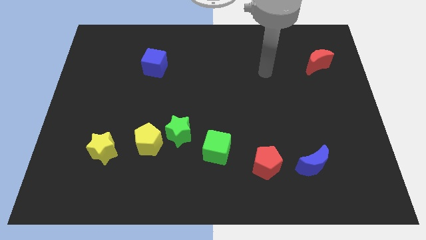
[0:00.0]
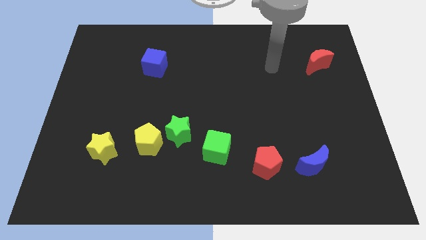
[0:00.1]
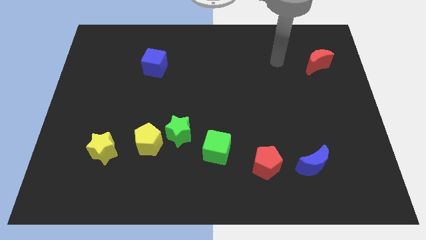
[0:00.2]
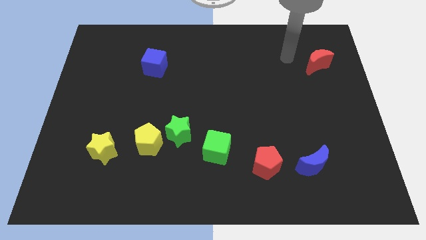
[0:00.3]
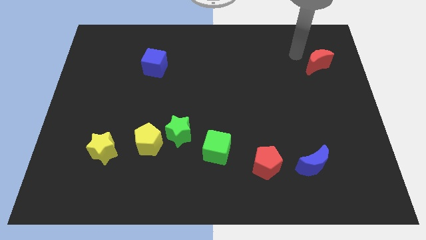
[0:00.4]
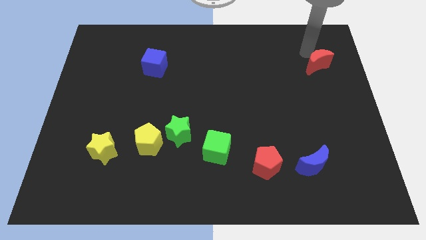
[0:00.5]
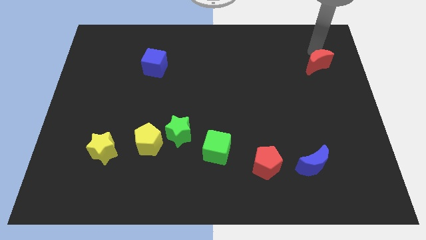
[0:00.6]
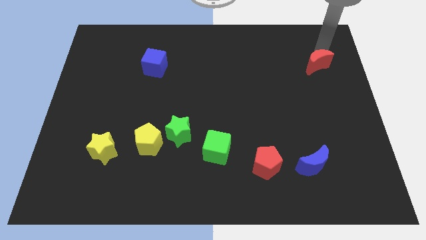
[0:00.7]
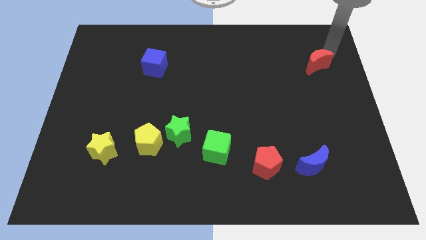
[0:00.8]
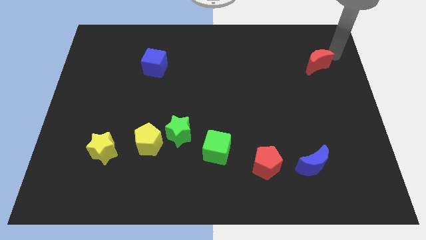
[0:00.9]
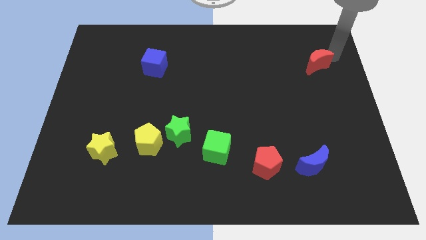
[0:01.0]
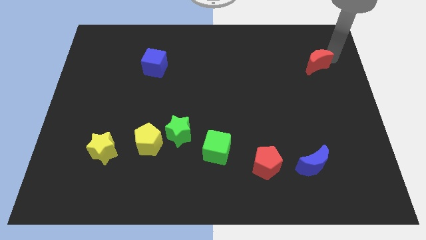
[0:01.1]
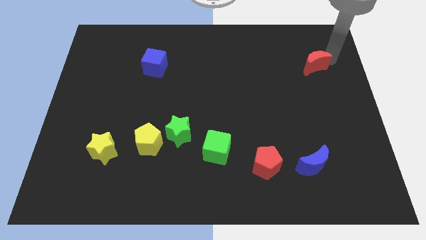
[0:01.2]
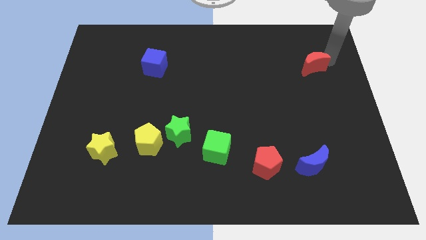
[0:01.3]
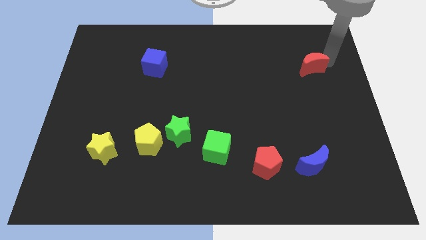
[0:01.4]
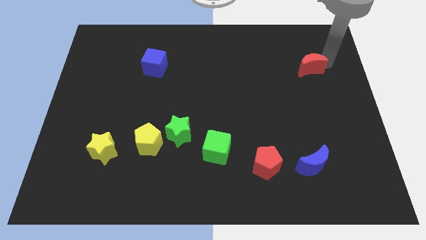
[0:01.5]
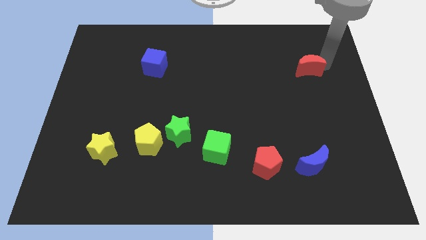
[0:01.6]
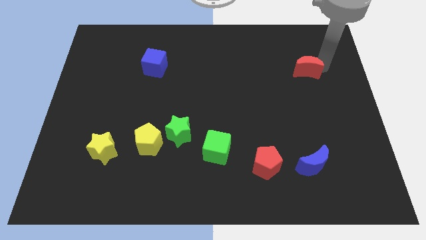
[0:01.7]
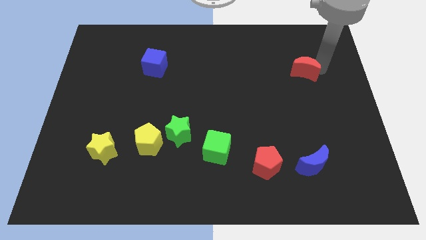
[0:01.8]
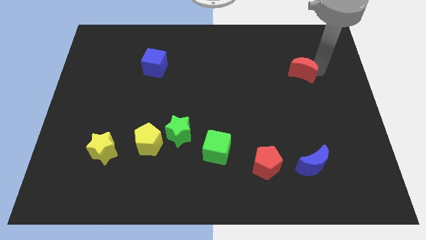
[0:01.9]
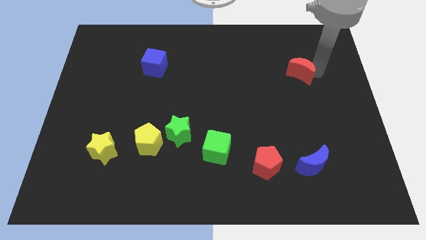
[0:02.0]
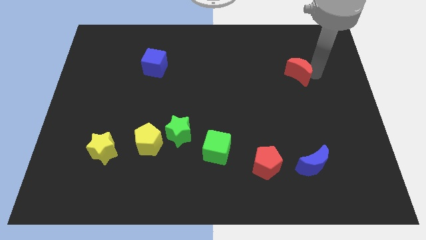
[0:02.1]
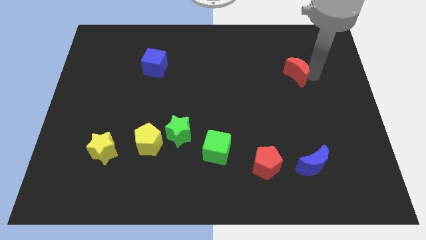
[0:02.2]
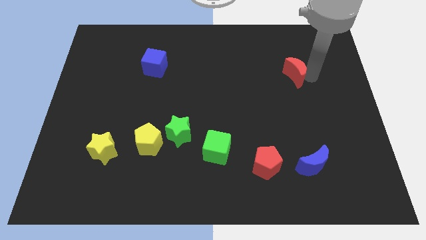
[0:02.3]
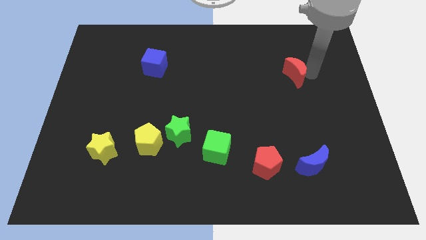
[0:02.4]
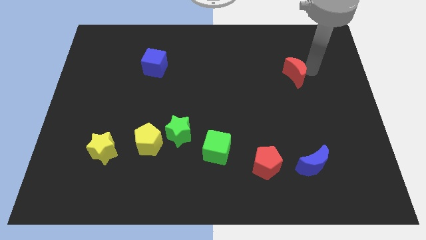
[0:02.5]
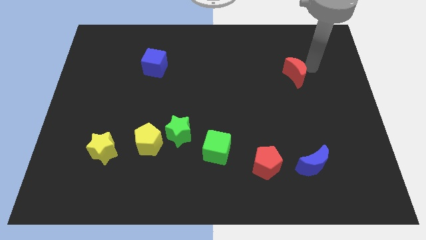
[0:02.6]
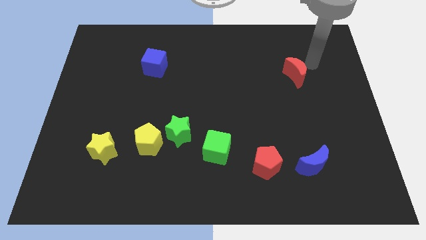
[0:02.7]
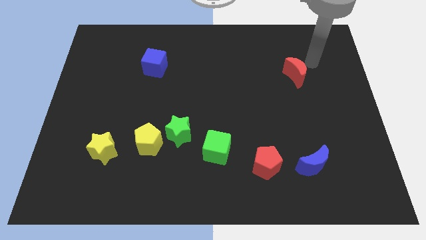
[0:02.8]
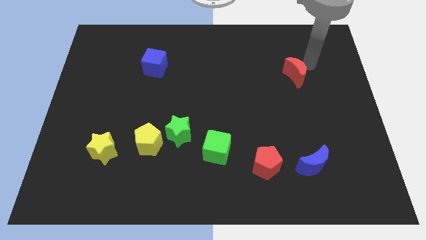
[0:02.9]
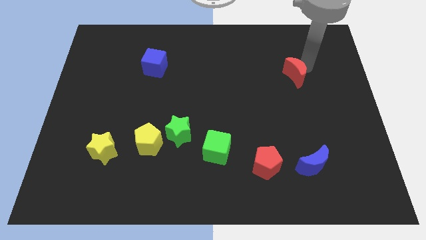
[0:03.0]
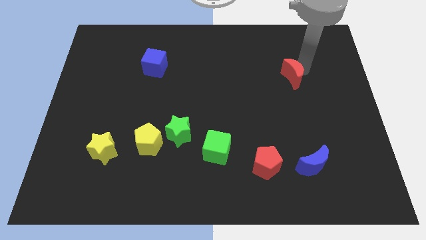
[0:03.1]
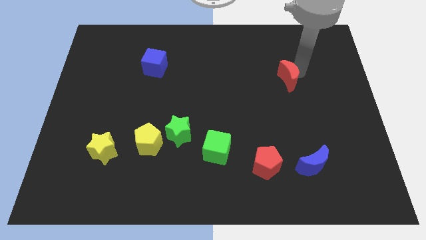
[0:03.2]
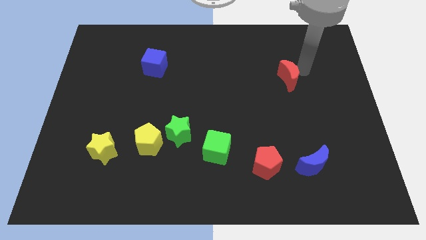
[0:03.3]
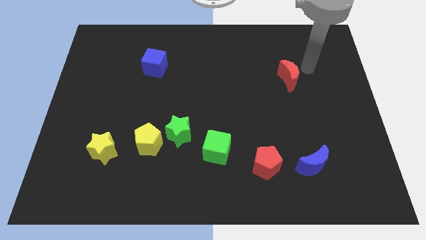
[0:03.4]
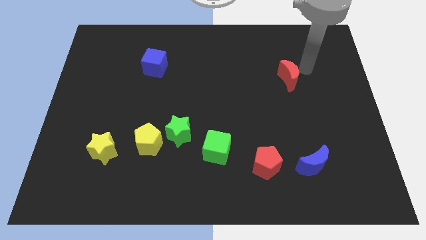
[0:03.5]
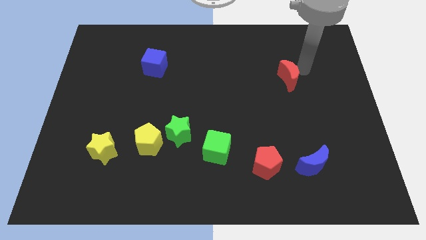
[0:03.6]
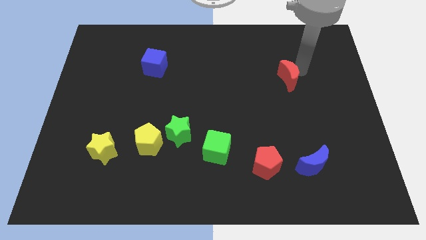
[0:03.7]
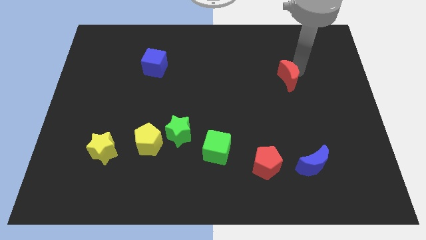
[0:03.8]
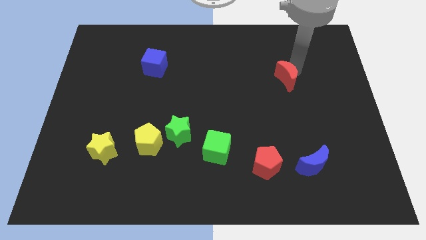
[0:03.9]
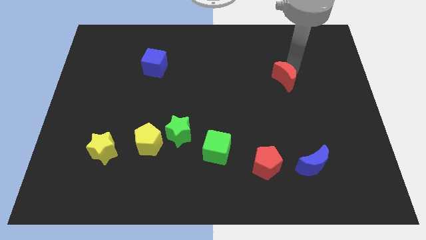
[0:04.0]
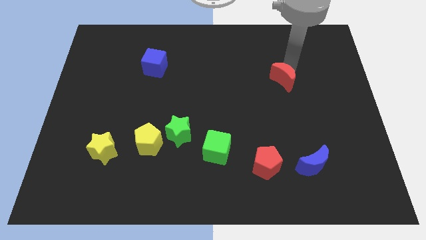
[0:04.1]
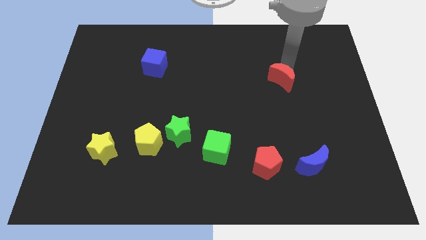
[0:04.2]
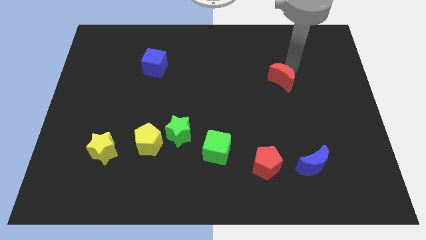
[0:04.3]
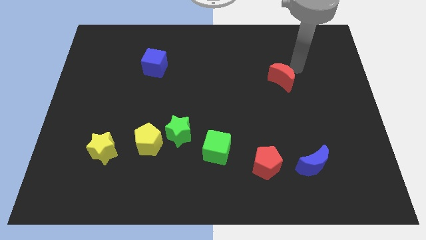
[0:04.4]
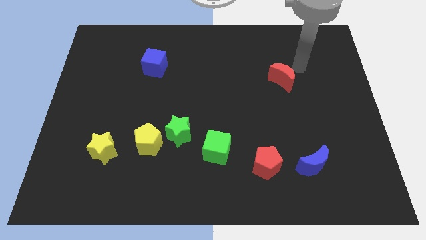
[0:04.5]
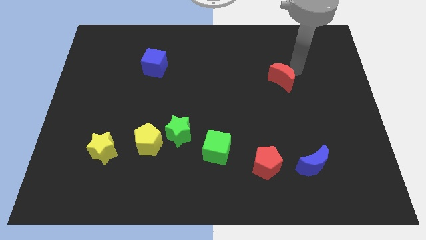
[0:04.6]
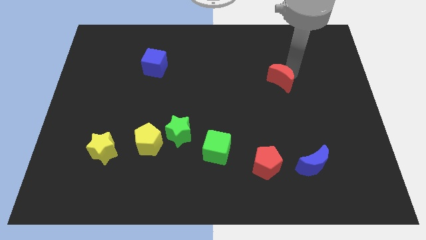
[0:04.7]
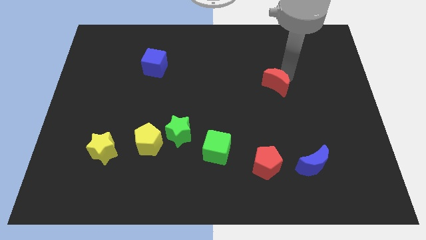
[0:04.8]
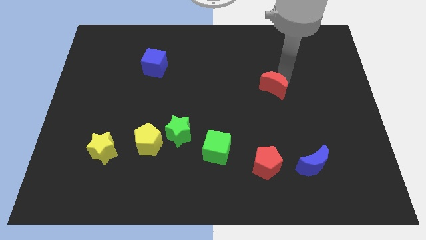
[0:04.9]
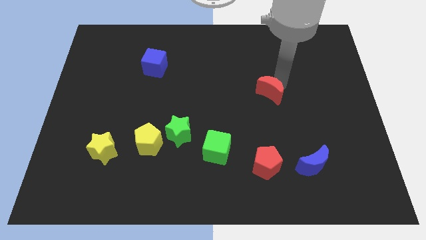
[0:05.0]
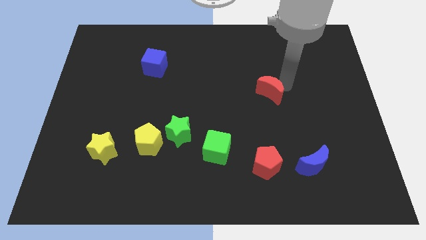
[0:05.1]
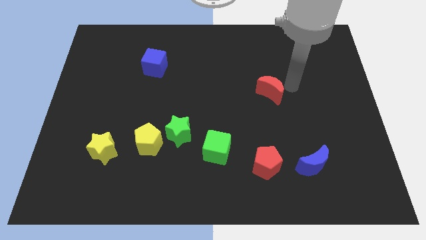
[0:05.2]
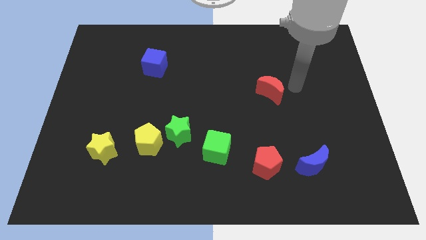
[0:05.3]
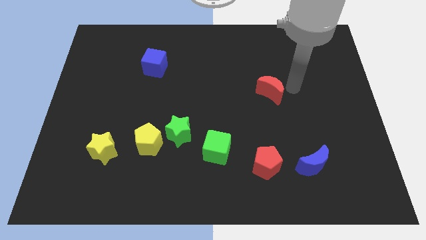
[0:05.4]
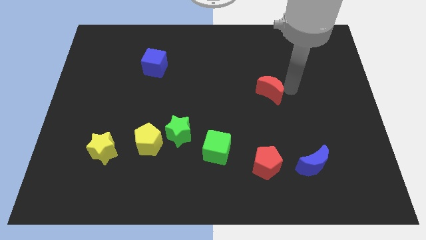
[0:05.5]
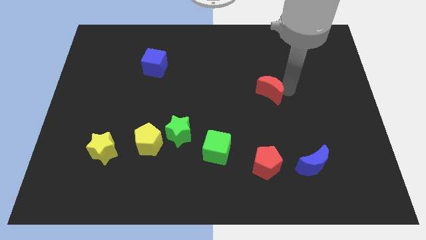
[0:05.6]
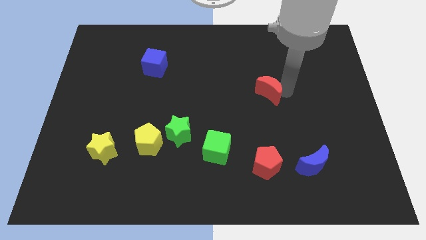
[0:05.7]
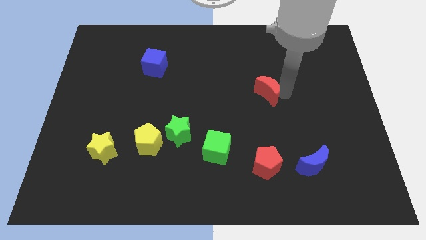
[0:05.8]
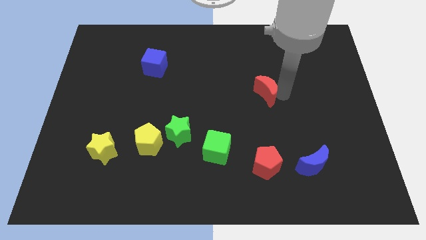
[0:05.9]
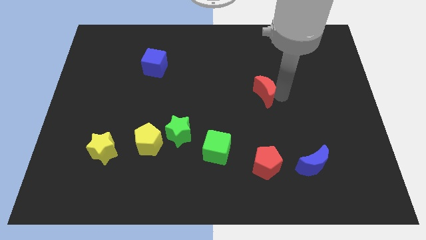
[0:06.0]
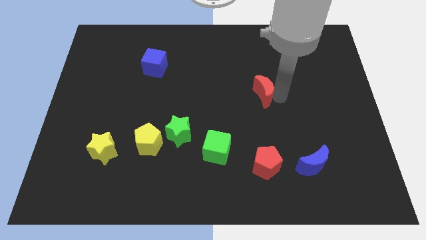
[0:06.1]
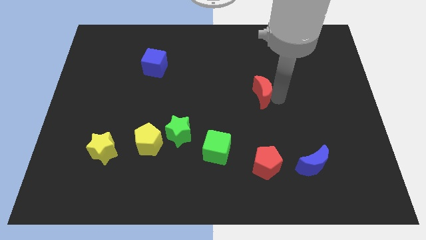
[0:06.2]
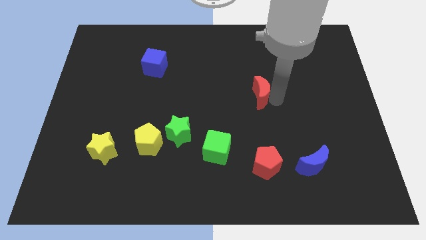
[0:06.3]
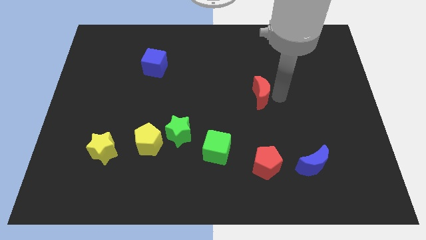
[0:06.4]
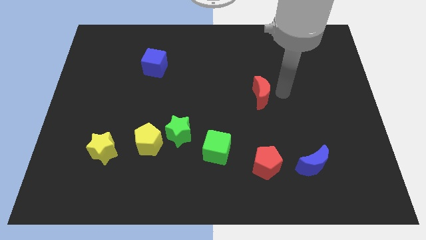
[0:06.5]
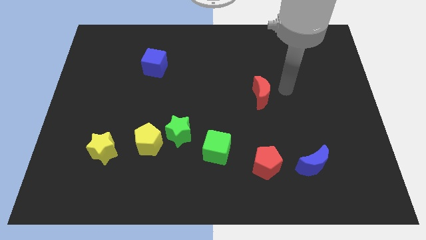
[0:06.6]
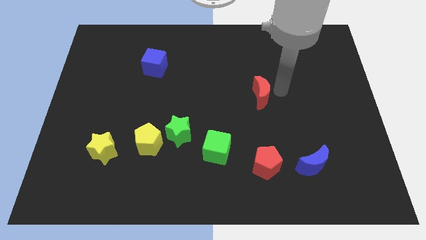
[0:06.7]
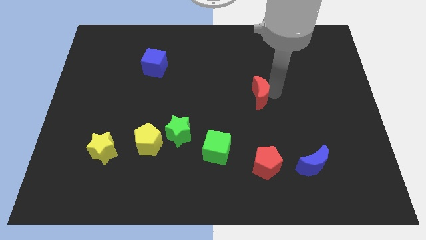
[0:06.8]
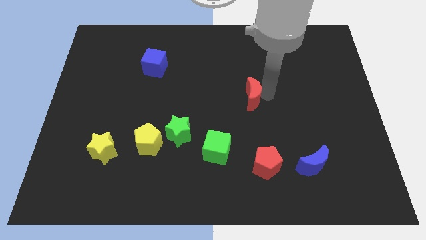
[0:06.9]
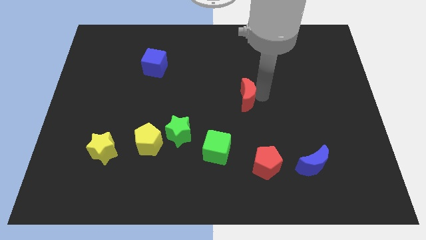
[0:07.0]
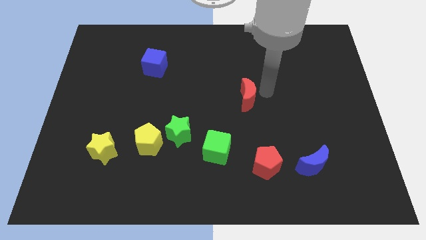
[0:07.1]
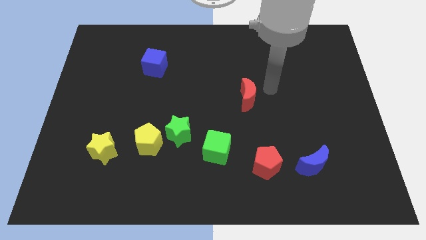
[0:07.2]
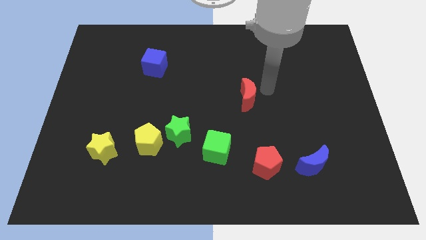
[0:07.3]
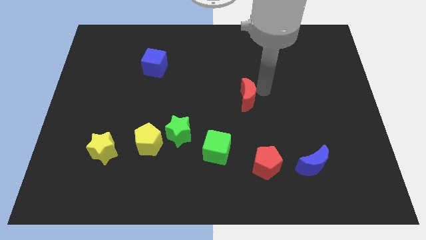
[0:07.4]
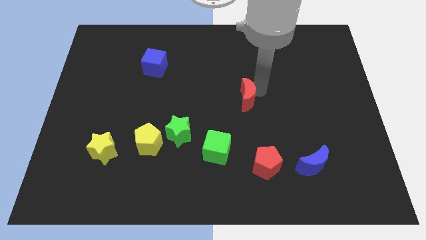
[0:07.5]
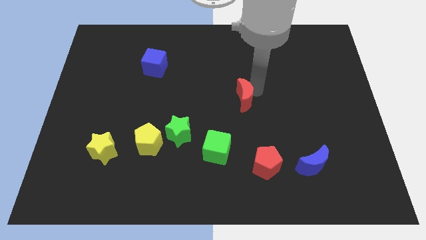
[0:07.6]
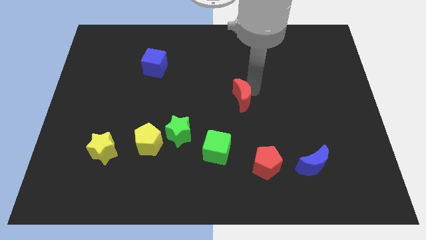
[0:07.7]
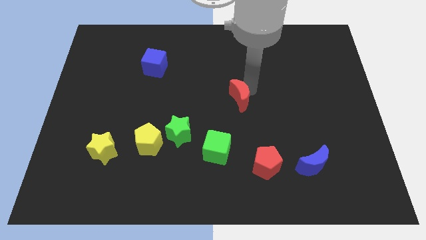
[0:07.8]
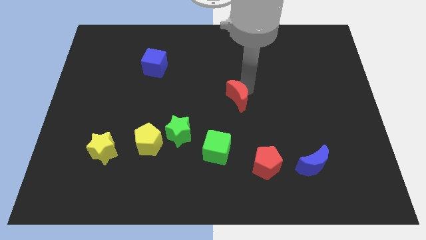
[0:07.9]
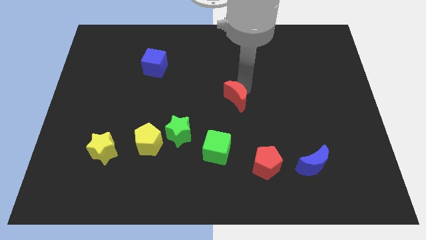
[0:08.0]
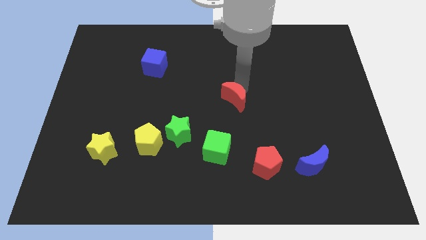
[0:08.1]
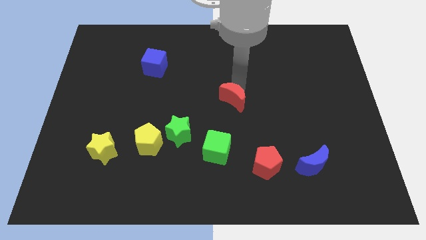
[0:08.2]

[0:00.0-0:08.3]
slide the red moon to the top side of the green cube
